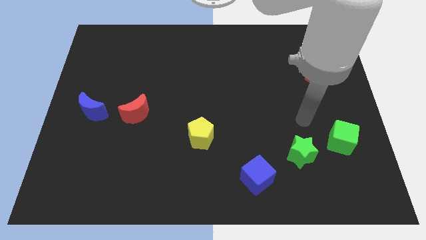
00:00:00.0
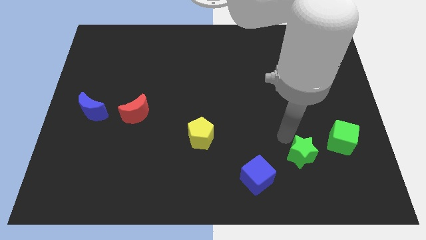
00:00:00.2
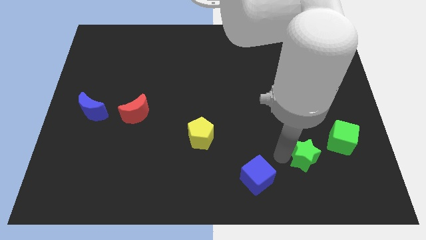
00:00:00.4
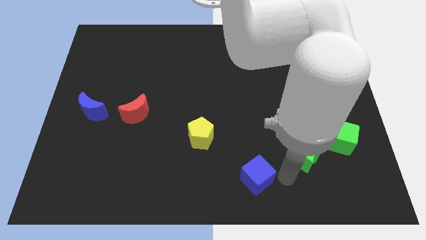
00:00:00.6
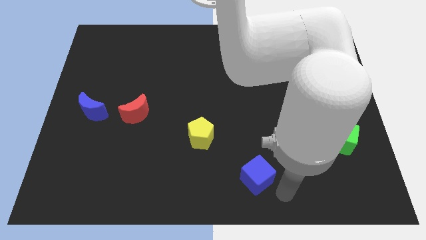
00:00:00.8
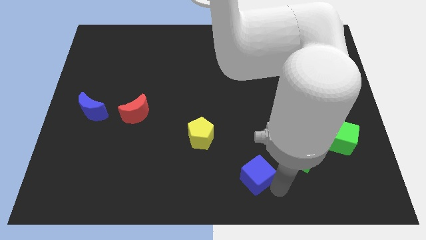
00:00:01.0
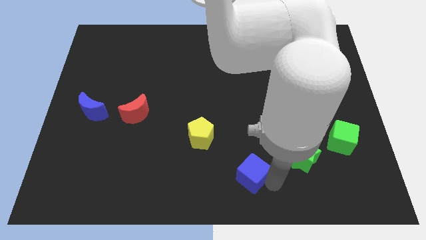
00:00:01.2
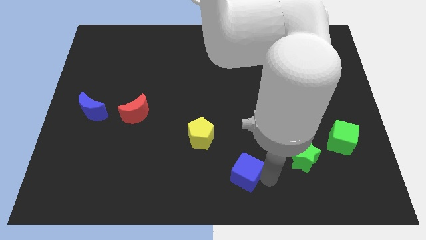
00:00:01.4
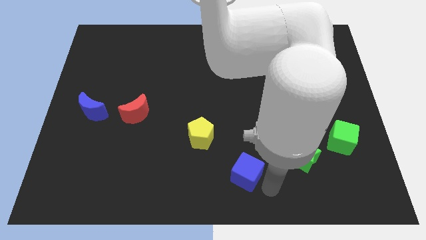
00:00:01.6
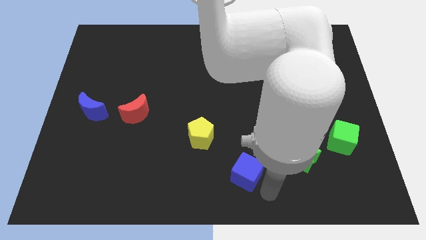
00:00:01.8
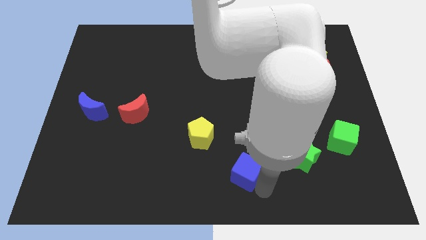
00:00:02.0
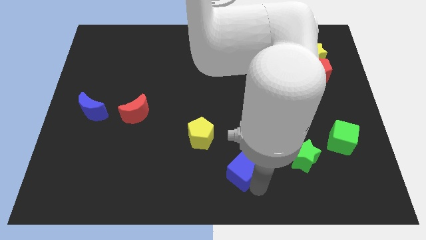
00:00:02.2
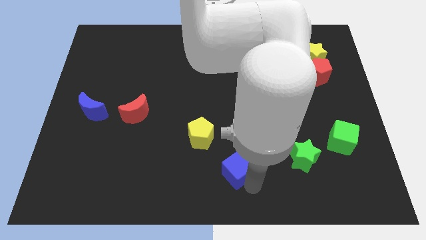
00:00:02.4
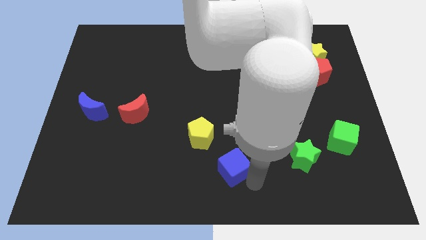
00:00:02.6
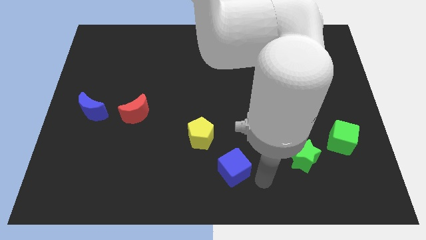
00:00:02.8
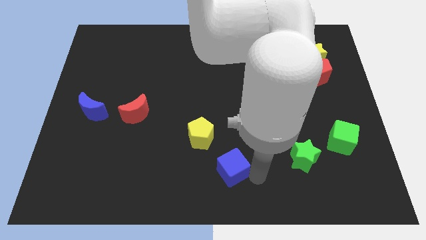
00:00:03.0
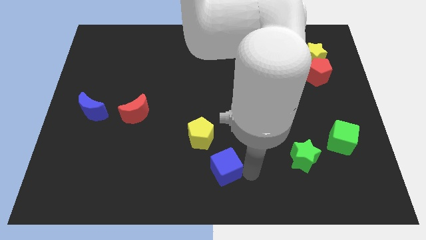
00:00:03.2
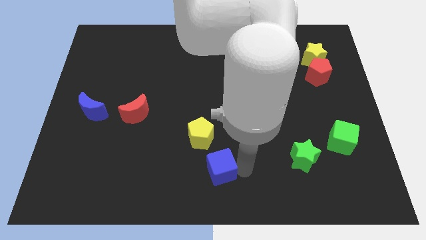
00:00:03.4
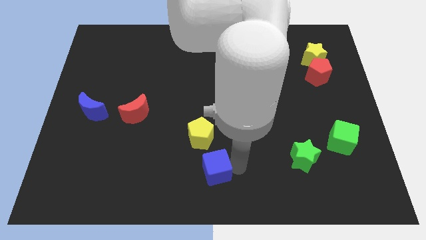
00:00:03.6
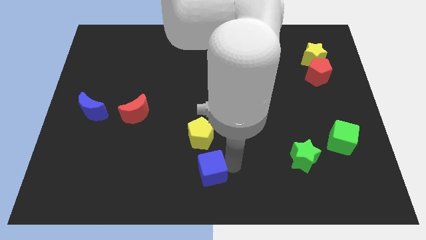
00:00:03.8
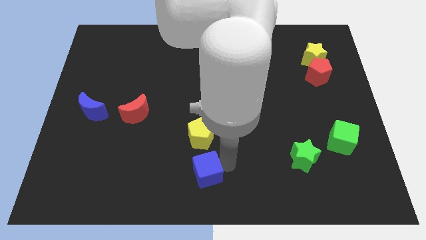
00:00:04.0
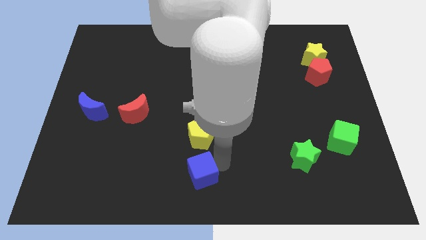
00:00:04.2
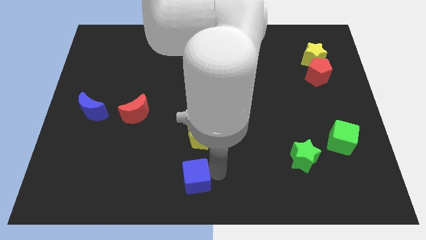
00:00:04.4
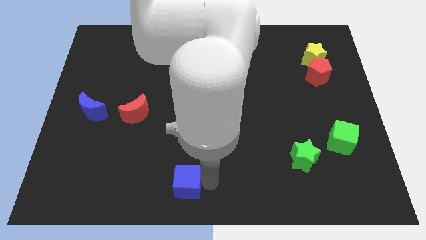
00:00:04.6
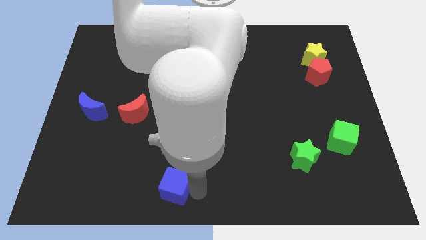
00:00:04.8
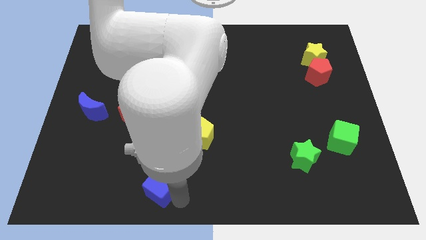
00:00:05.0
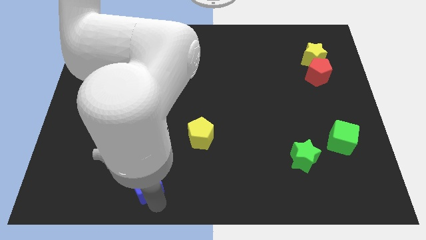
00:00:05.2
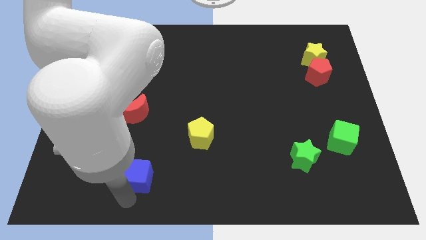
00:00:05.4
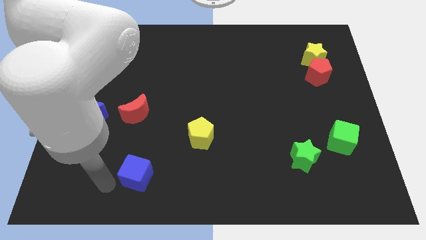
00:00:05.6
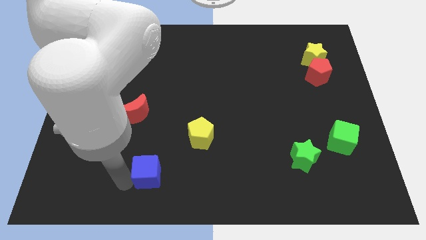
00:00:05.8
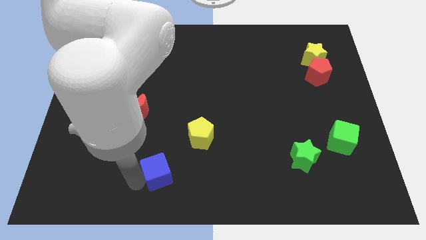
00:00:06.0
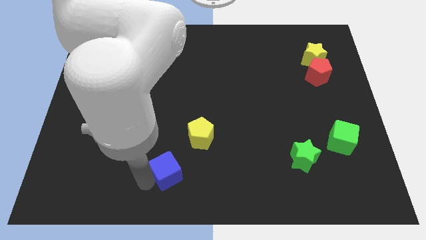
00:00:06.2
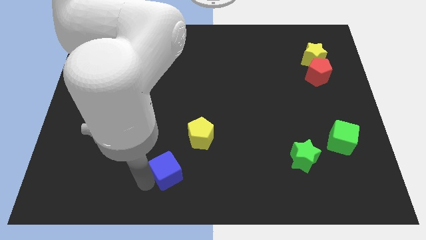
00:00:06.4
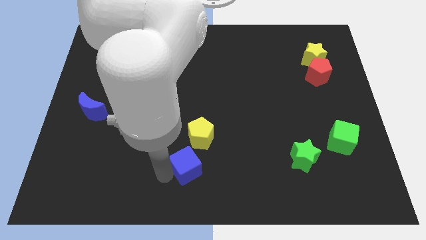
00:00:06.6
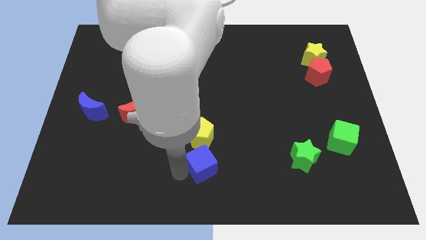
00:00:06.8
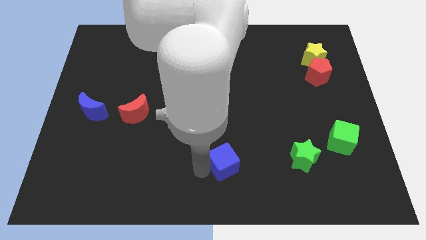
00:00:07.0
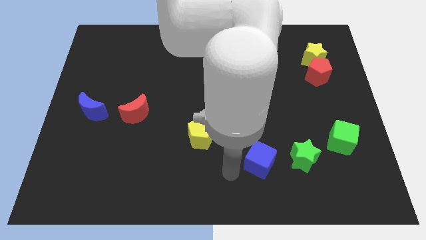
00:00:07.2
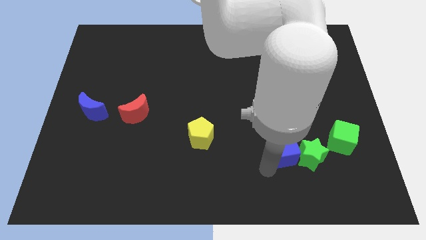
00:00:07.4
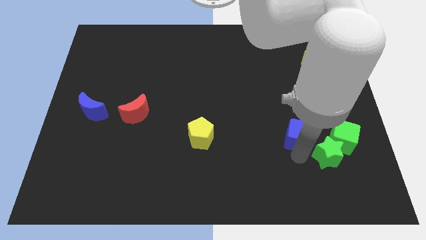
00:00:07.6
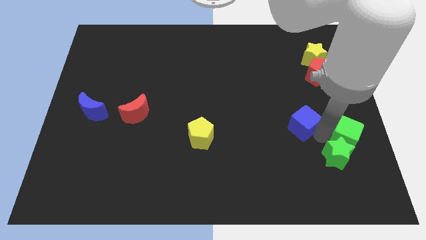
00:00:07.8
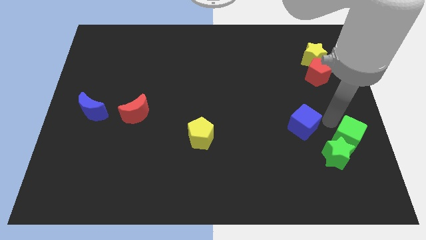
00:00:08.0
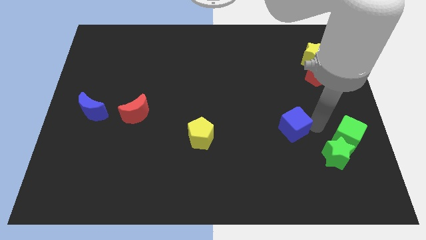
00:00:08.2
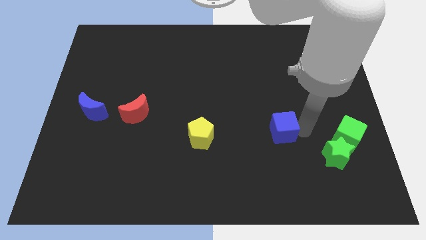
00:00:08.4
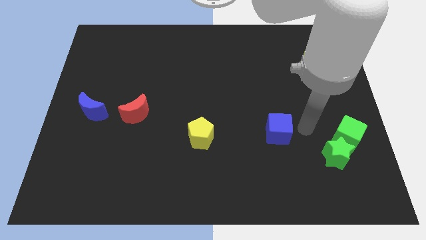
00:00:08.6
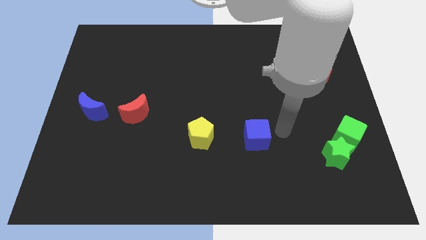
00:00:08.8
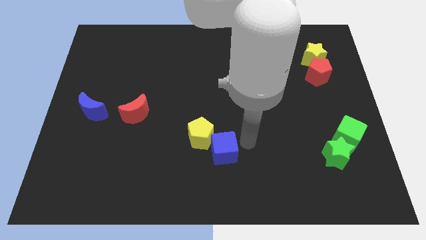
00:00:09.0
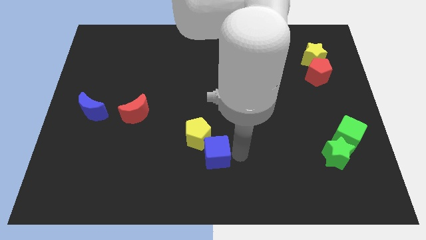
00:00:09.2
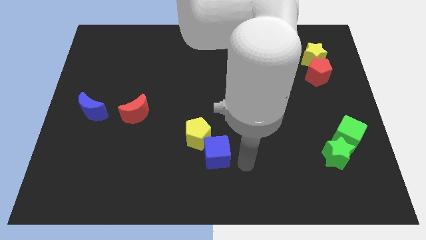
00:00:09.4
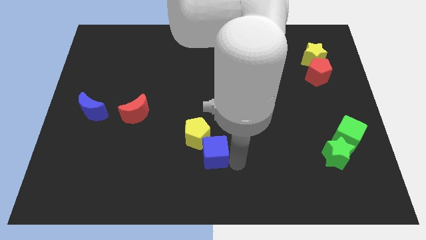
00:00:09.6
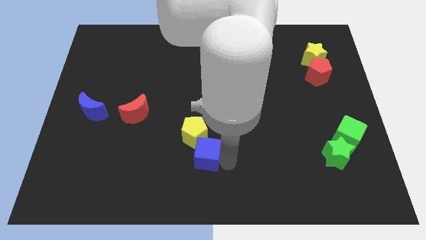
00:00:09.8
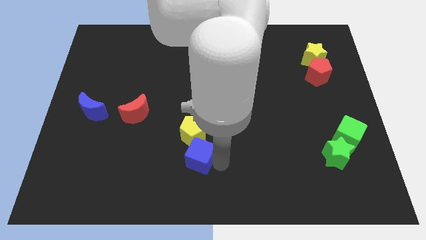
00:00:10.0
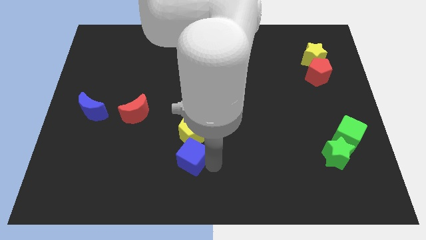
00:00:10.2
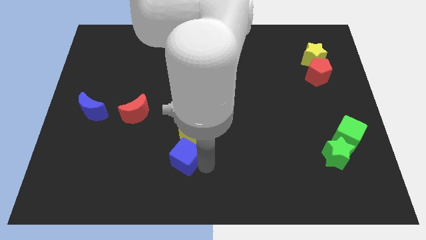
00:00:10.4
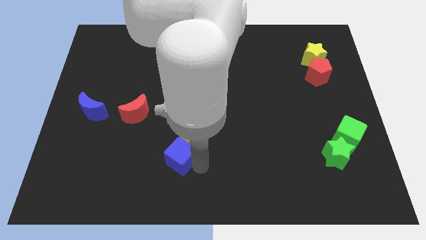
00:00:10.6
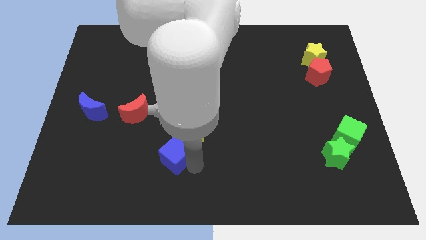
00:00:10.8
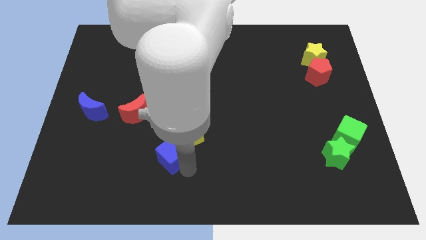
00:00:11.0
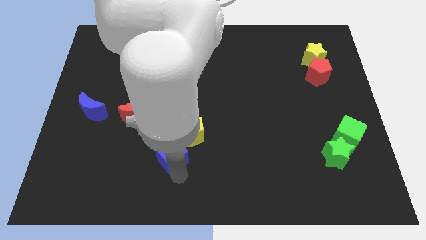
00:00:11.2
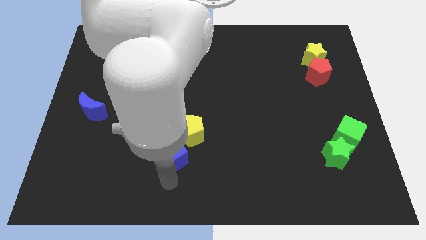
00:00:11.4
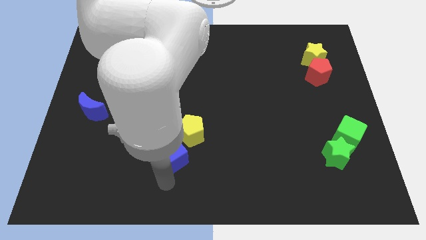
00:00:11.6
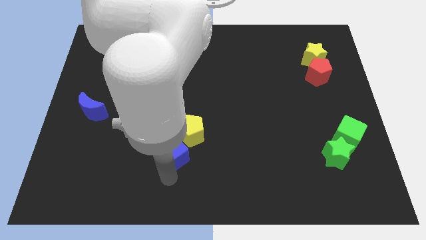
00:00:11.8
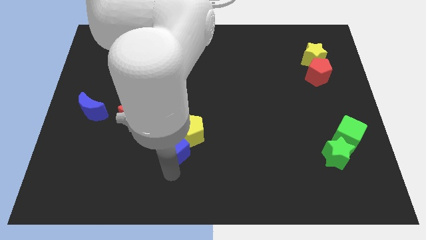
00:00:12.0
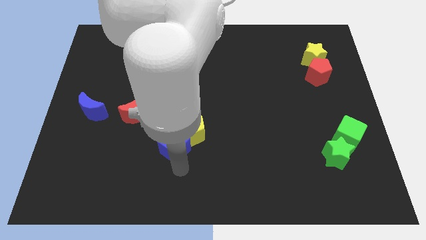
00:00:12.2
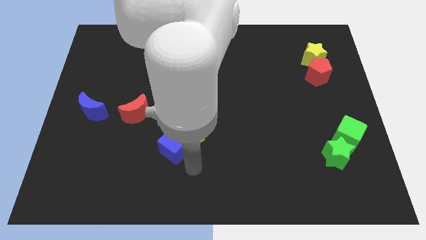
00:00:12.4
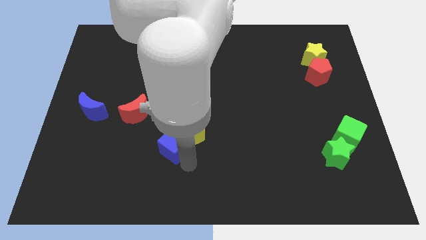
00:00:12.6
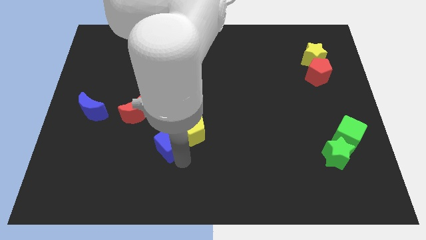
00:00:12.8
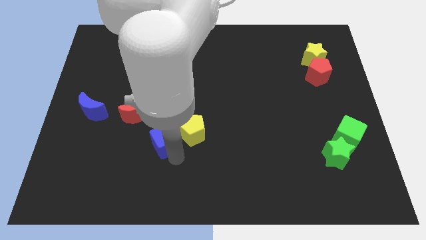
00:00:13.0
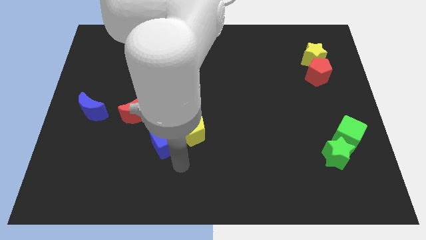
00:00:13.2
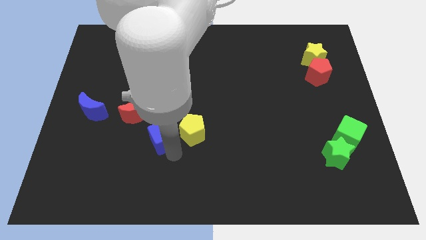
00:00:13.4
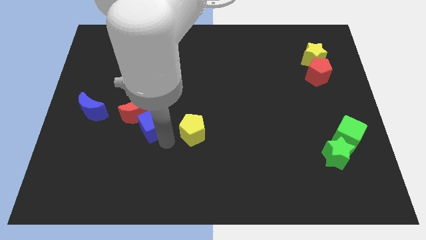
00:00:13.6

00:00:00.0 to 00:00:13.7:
put the blue cube towards the red moon
